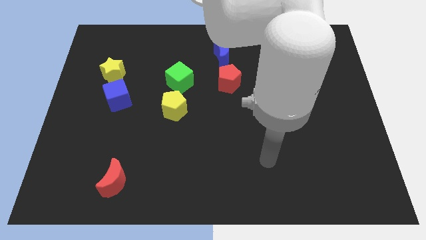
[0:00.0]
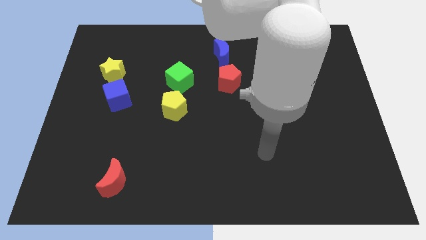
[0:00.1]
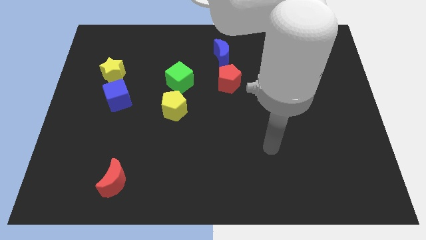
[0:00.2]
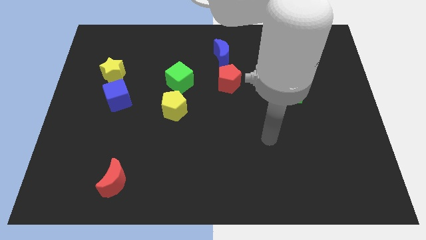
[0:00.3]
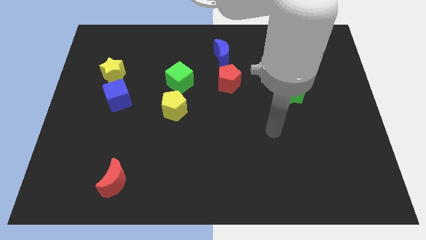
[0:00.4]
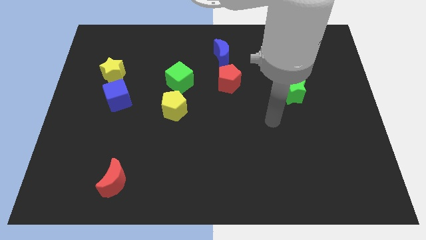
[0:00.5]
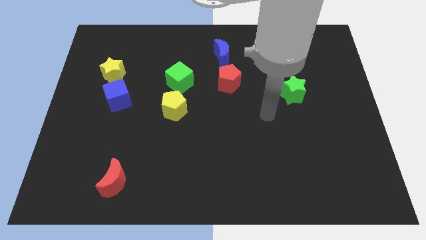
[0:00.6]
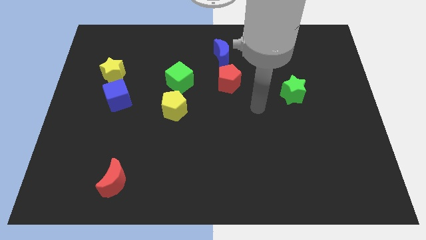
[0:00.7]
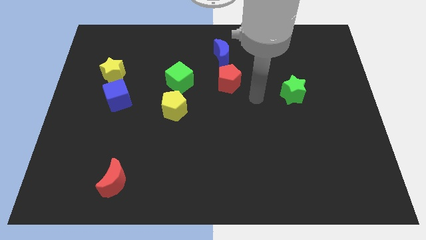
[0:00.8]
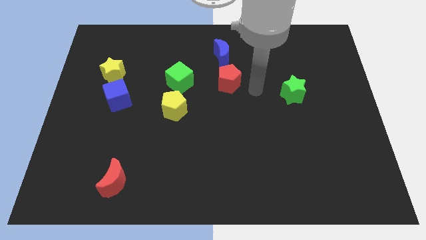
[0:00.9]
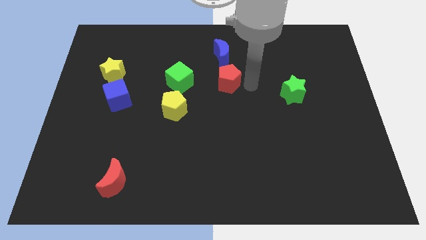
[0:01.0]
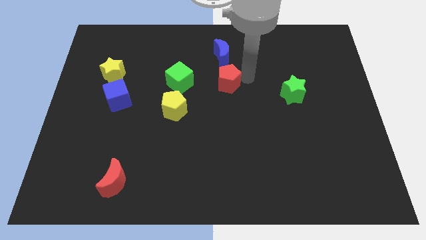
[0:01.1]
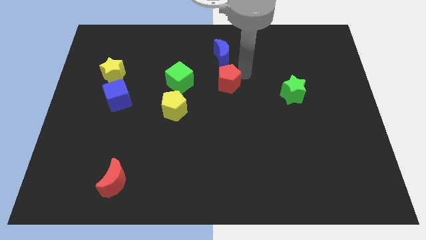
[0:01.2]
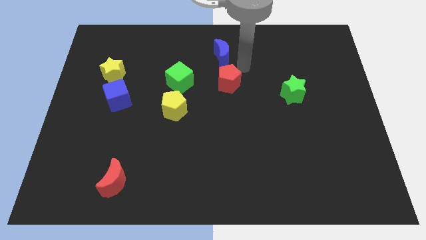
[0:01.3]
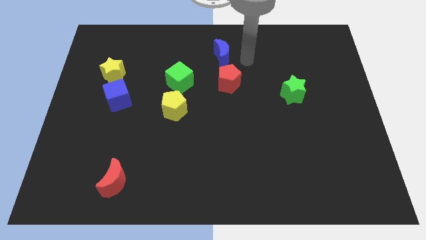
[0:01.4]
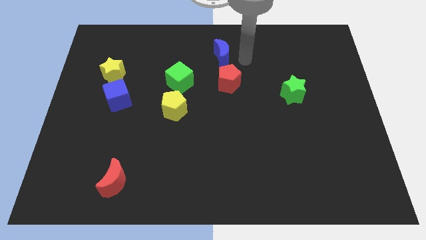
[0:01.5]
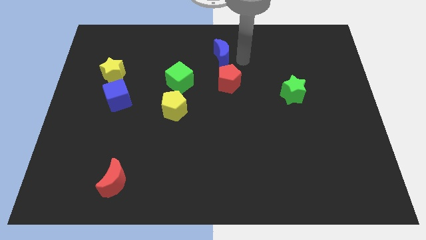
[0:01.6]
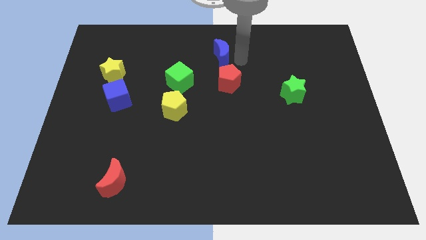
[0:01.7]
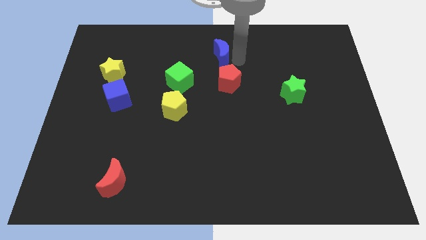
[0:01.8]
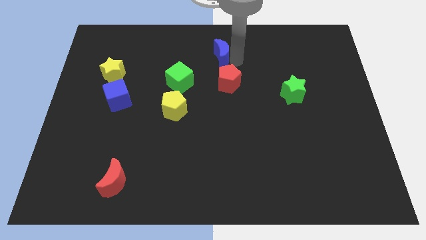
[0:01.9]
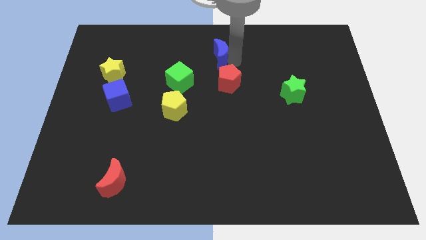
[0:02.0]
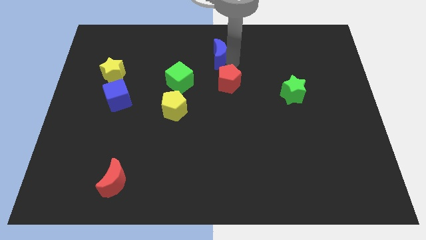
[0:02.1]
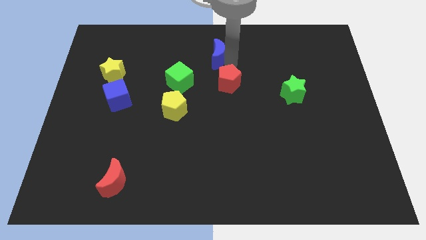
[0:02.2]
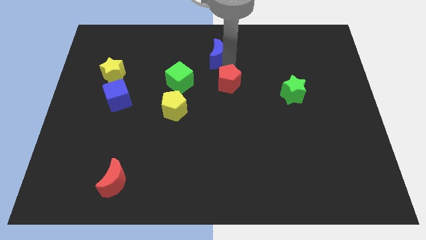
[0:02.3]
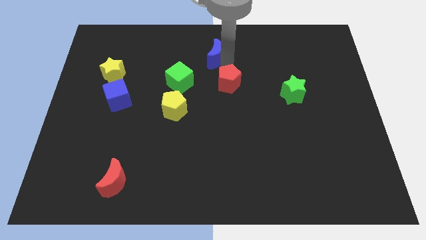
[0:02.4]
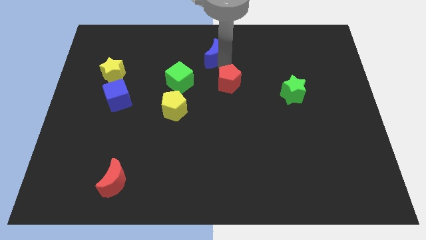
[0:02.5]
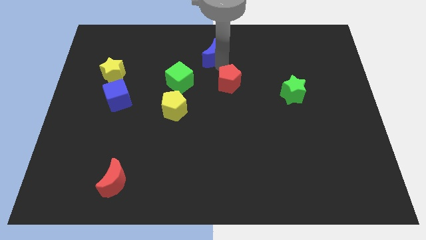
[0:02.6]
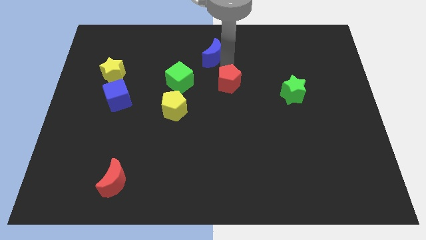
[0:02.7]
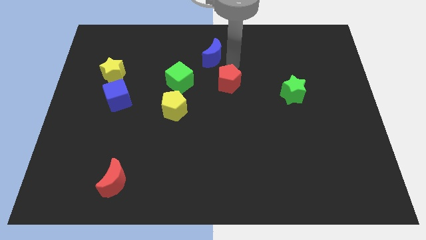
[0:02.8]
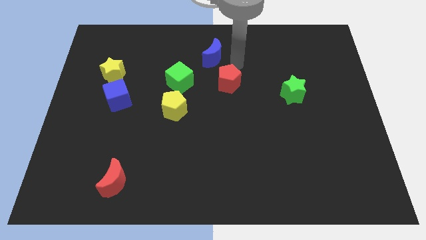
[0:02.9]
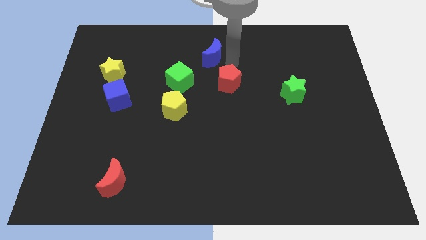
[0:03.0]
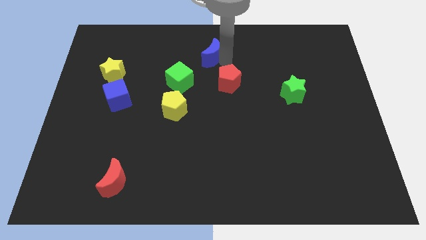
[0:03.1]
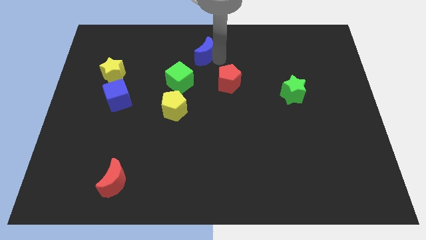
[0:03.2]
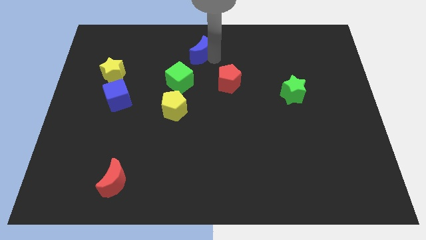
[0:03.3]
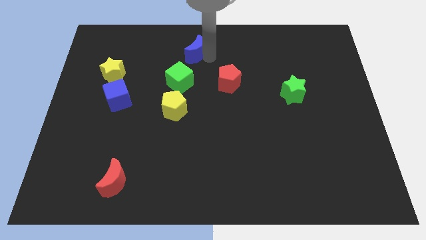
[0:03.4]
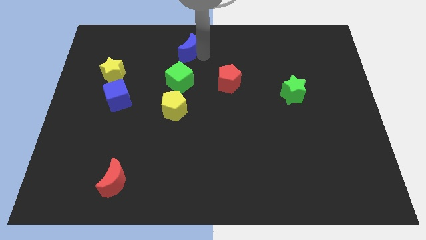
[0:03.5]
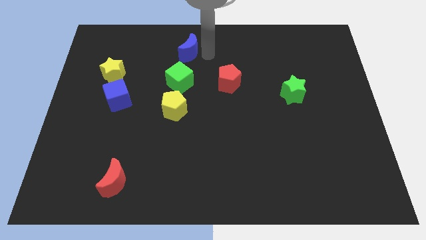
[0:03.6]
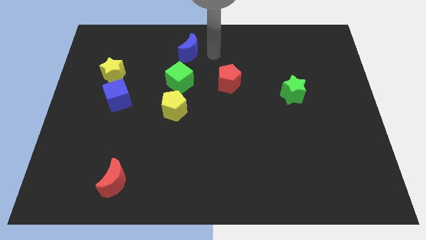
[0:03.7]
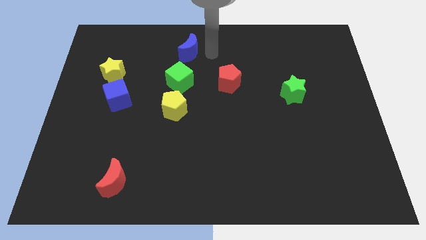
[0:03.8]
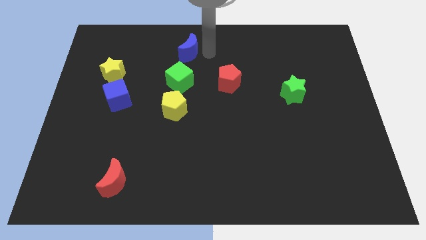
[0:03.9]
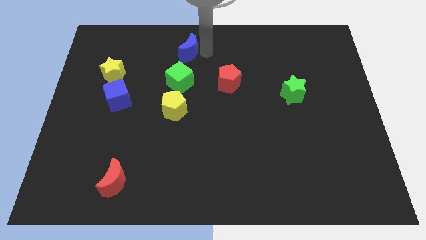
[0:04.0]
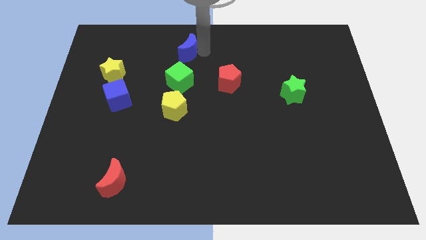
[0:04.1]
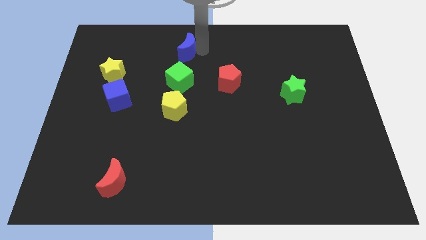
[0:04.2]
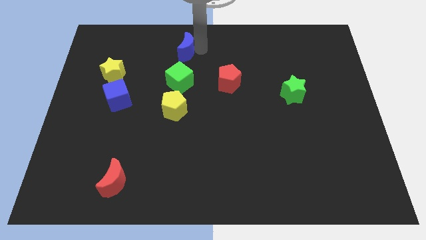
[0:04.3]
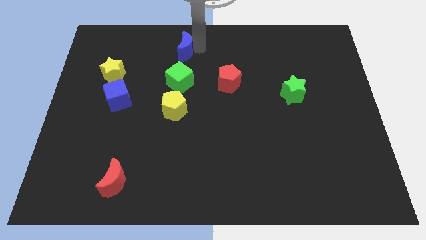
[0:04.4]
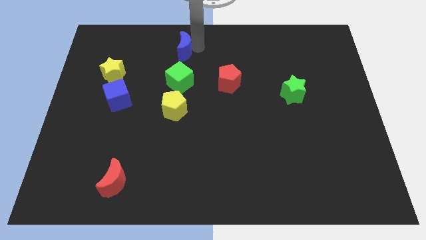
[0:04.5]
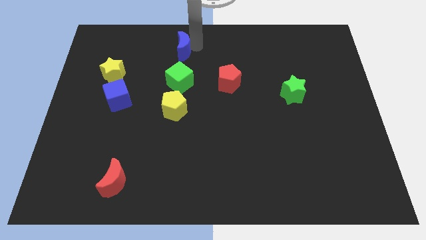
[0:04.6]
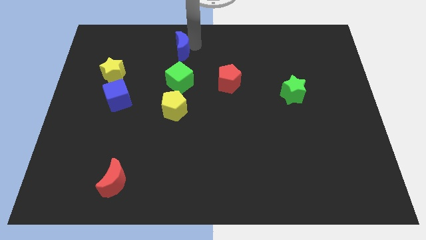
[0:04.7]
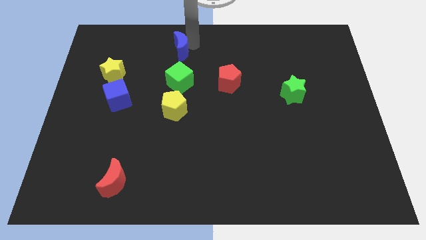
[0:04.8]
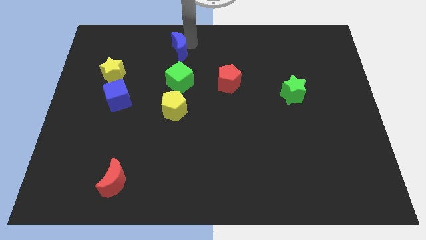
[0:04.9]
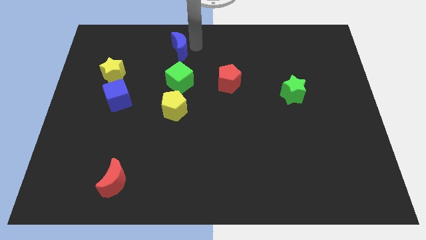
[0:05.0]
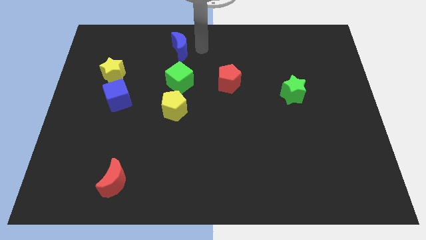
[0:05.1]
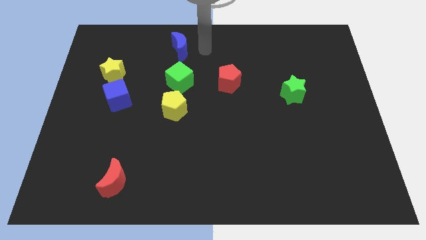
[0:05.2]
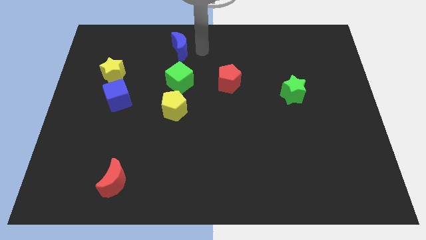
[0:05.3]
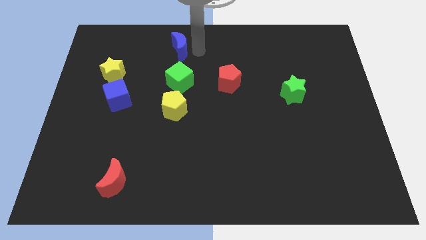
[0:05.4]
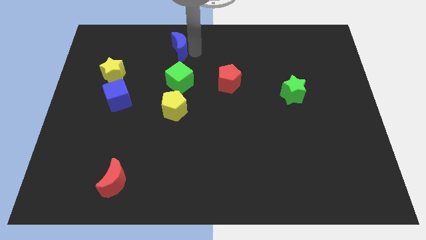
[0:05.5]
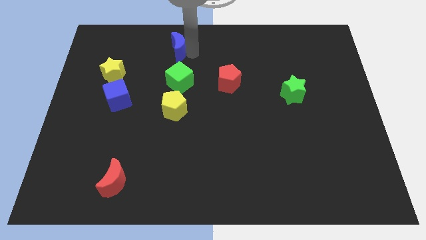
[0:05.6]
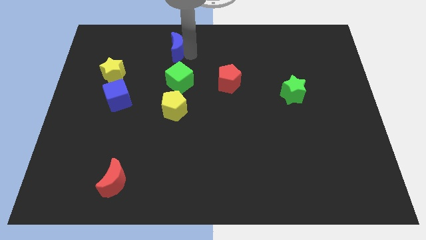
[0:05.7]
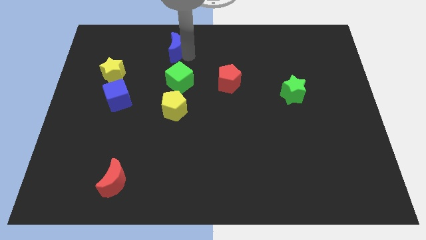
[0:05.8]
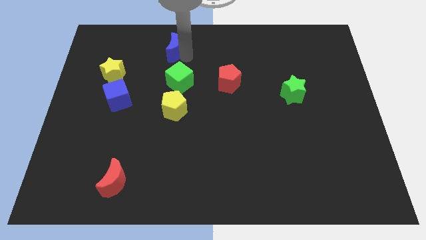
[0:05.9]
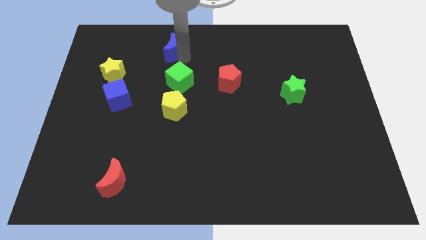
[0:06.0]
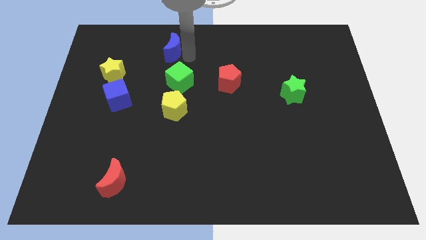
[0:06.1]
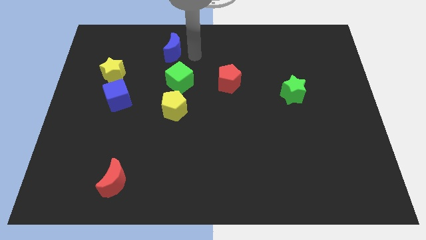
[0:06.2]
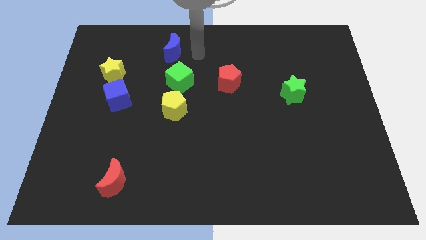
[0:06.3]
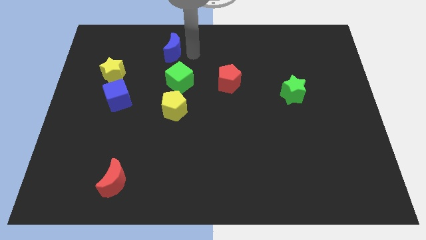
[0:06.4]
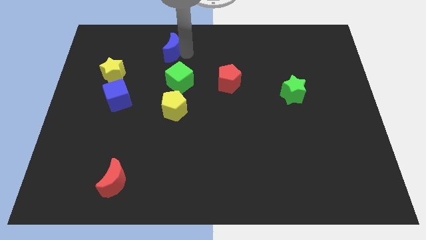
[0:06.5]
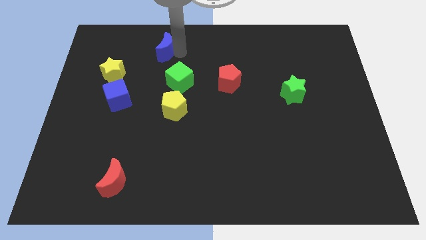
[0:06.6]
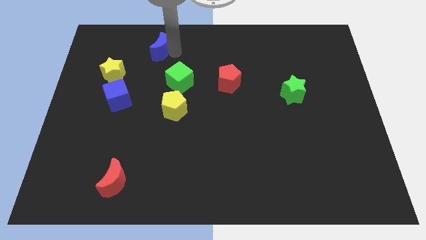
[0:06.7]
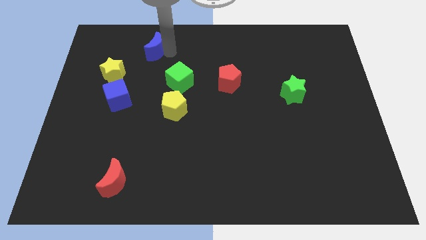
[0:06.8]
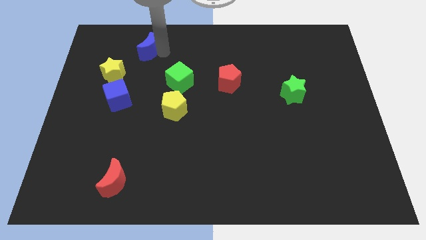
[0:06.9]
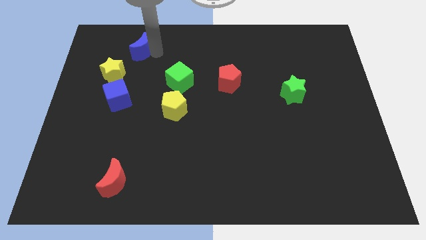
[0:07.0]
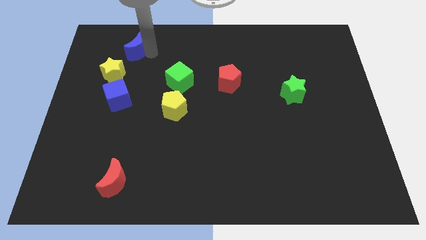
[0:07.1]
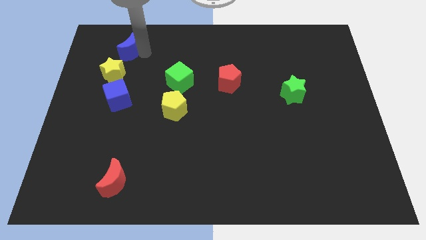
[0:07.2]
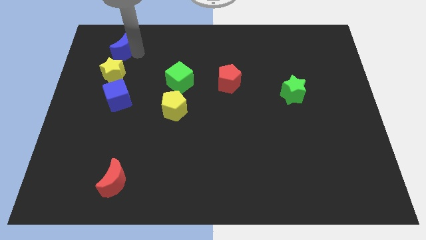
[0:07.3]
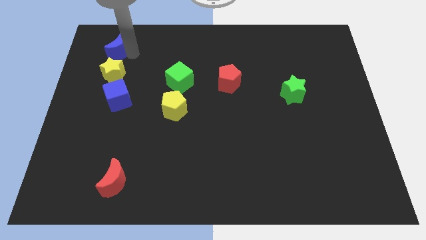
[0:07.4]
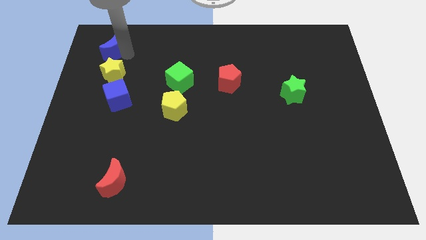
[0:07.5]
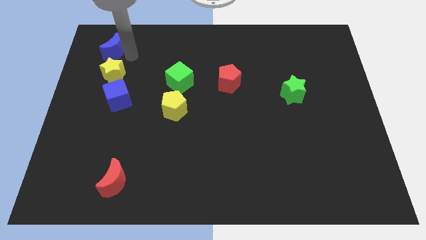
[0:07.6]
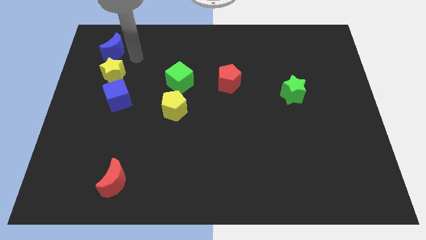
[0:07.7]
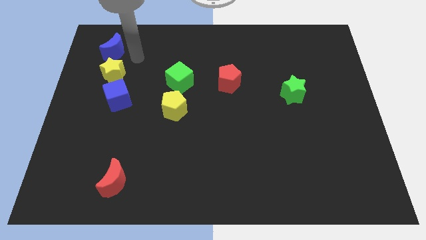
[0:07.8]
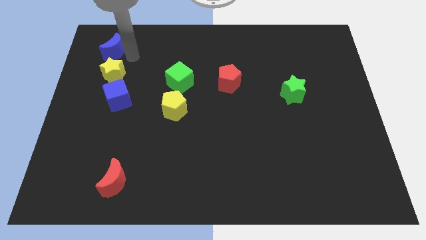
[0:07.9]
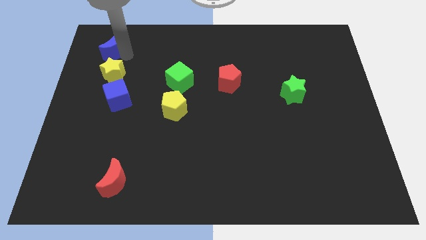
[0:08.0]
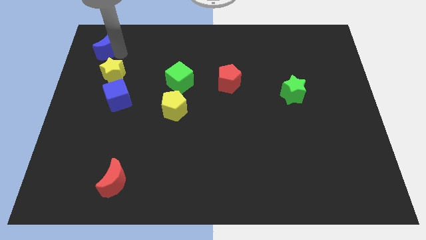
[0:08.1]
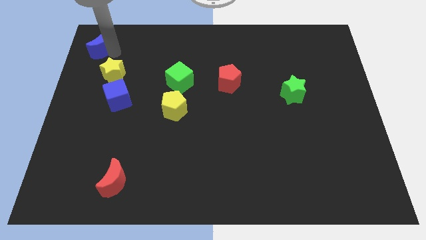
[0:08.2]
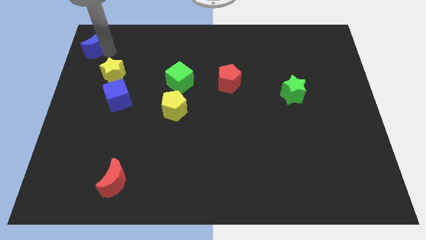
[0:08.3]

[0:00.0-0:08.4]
push the blue moon to the top left
